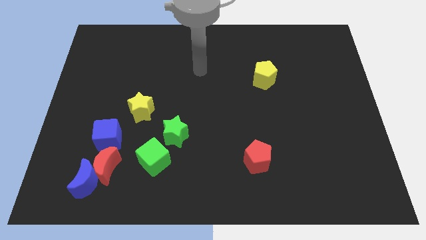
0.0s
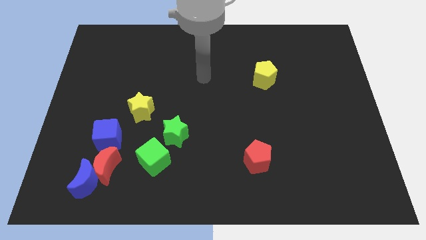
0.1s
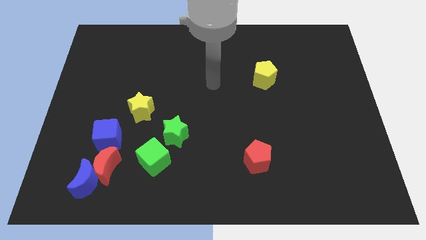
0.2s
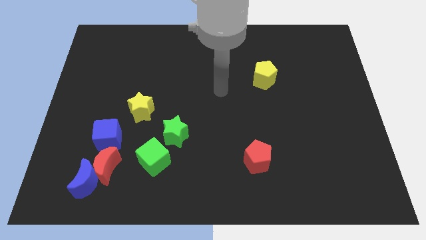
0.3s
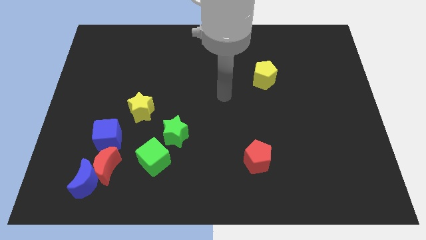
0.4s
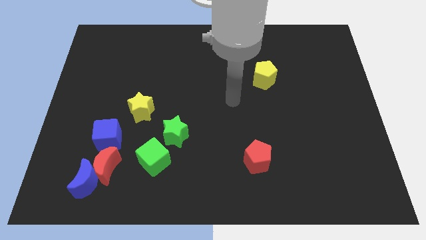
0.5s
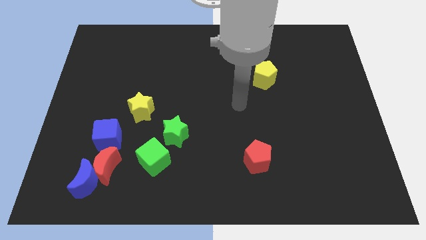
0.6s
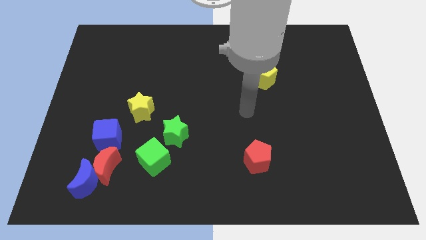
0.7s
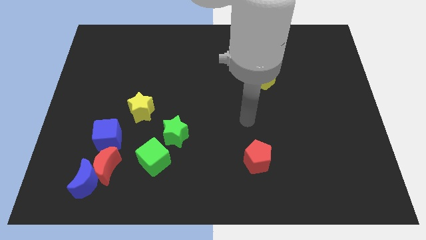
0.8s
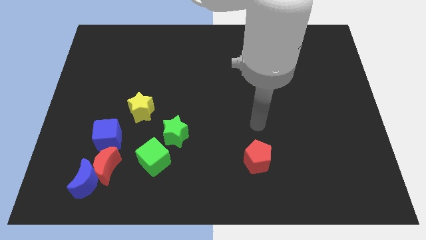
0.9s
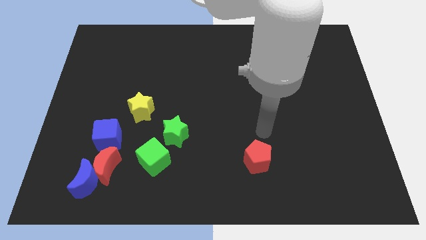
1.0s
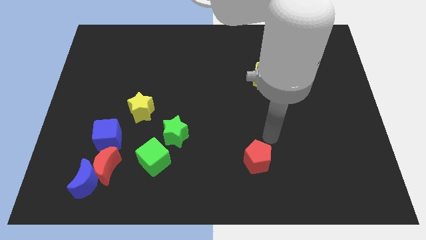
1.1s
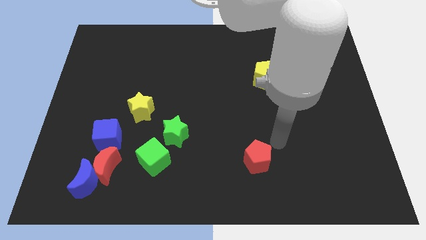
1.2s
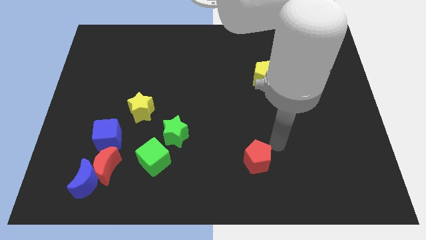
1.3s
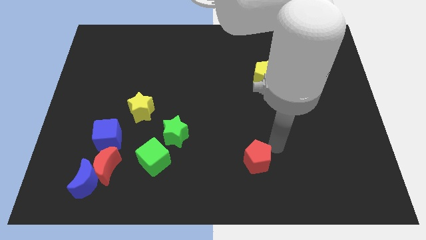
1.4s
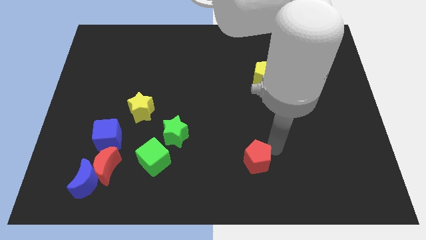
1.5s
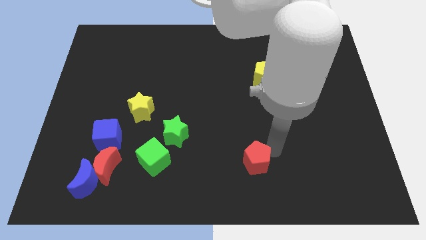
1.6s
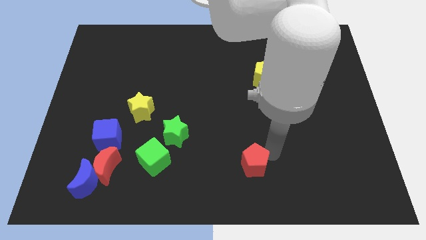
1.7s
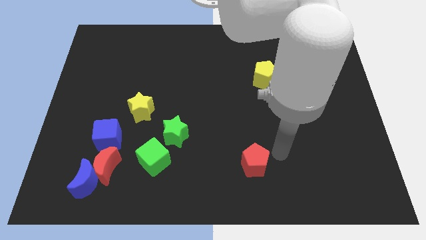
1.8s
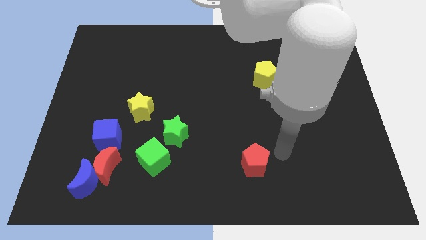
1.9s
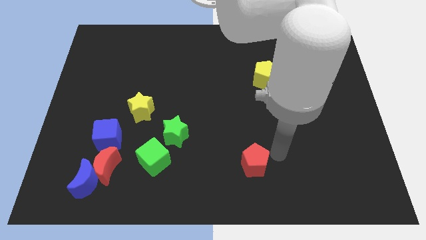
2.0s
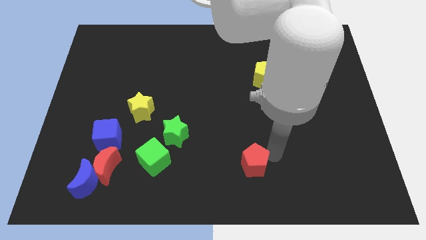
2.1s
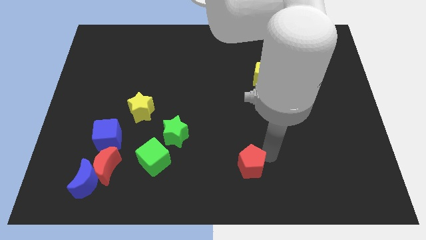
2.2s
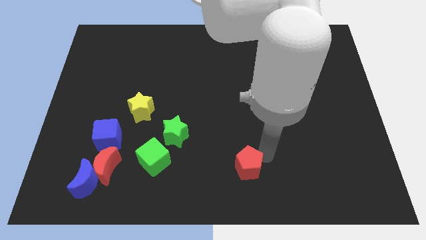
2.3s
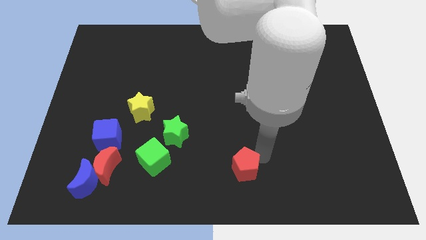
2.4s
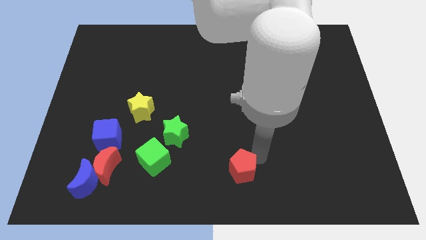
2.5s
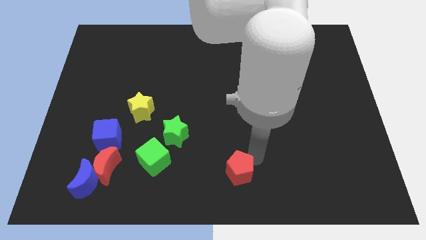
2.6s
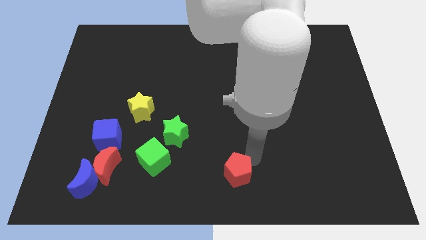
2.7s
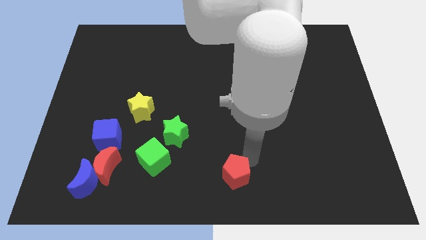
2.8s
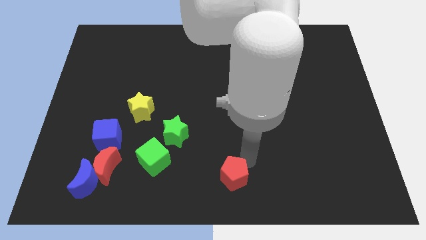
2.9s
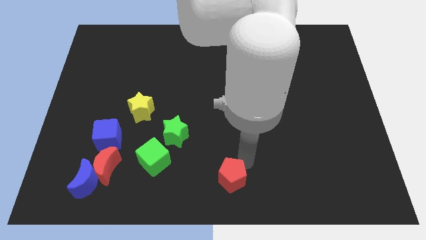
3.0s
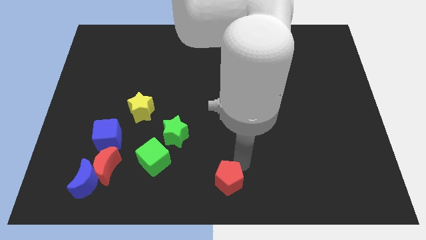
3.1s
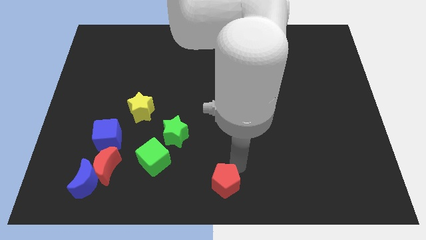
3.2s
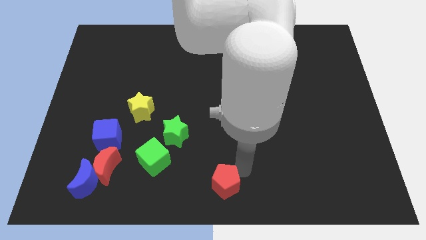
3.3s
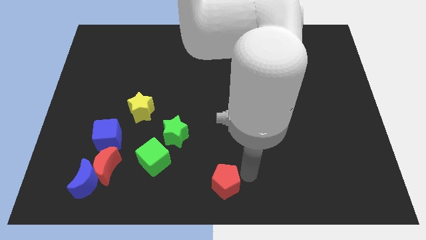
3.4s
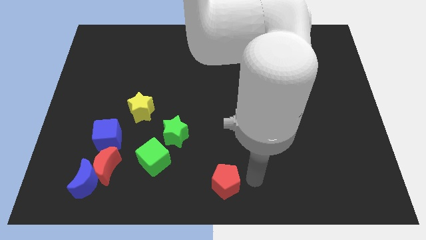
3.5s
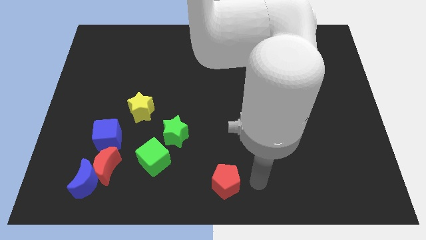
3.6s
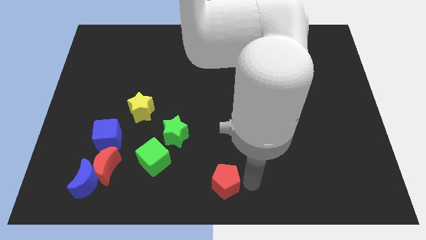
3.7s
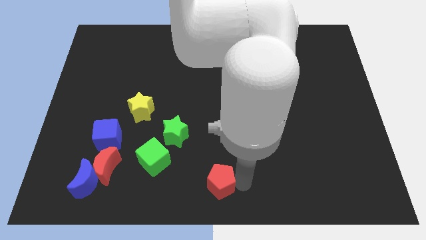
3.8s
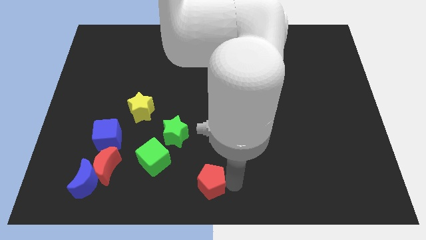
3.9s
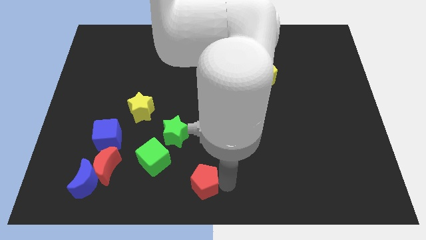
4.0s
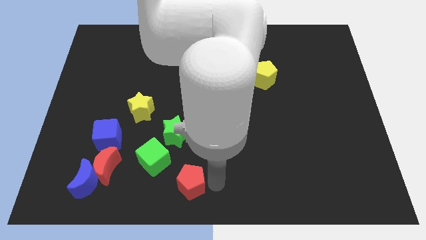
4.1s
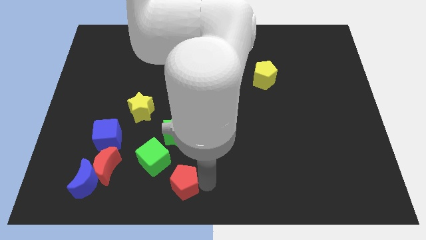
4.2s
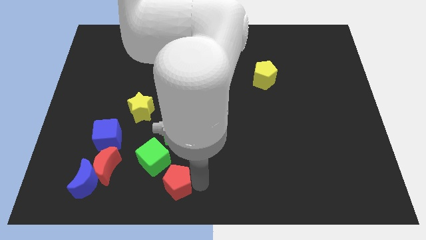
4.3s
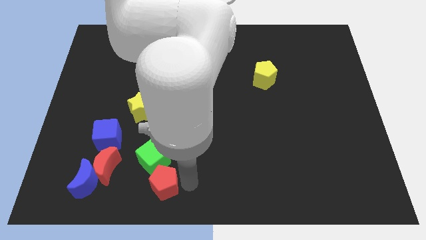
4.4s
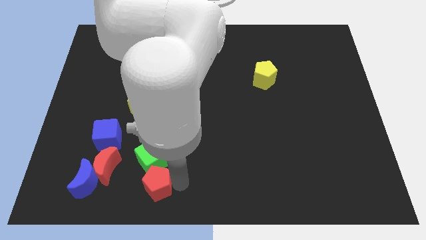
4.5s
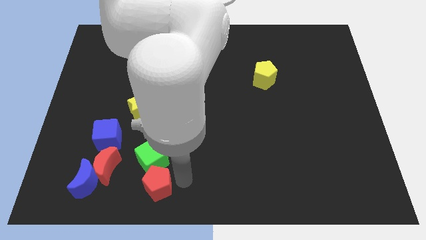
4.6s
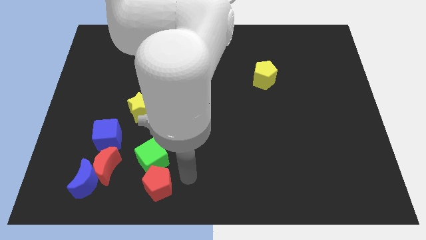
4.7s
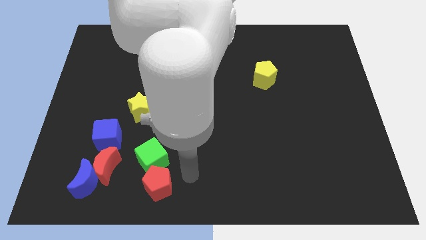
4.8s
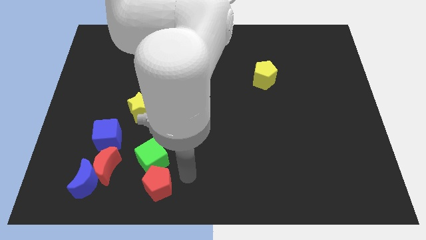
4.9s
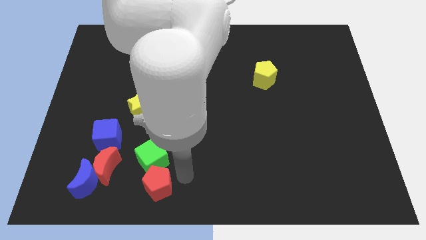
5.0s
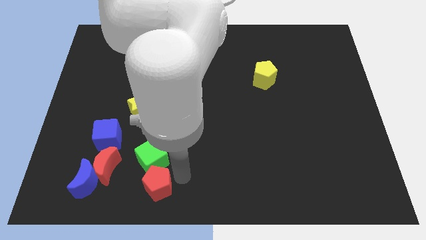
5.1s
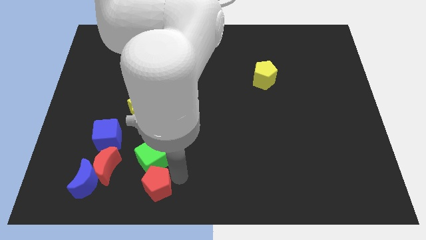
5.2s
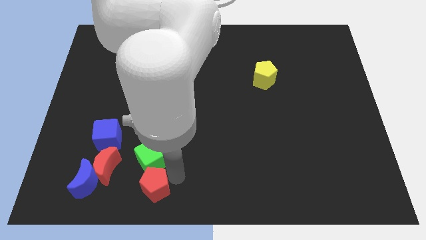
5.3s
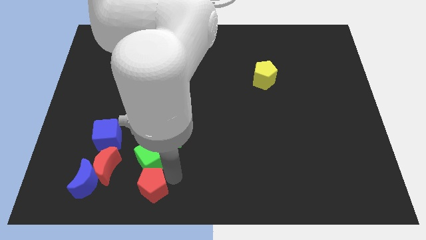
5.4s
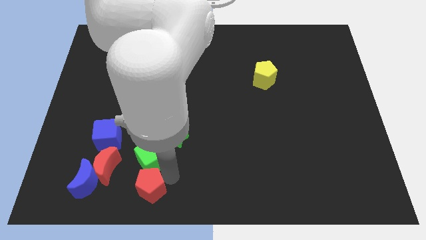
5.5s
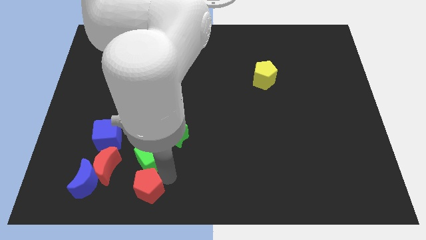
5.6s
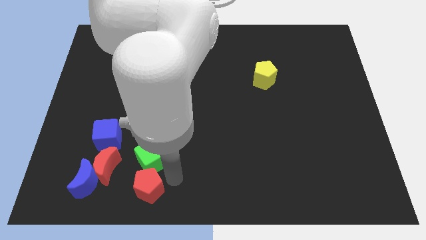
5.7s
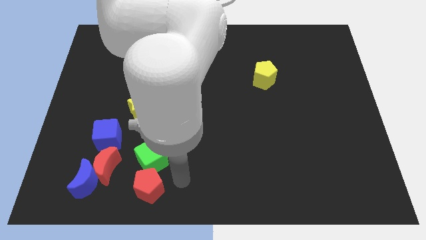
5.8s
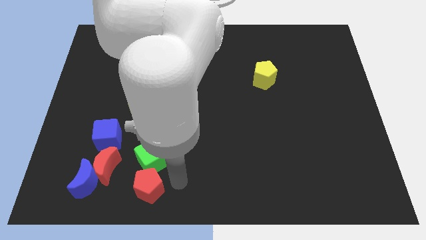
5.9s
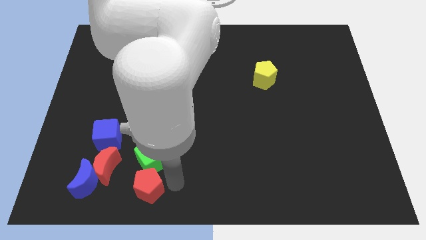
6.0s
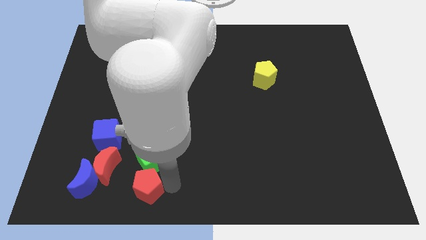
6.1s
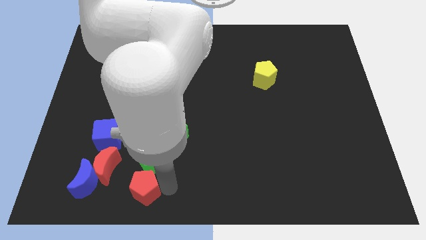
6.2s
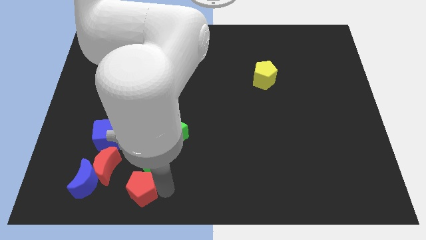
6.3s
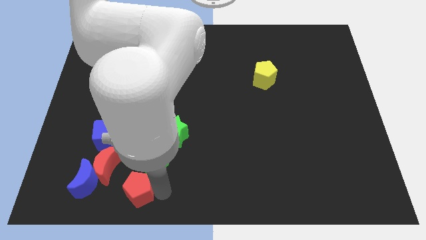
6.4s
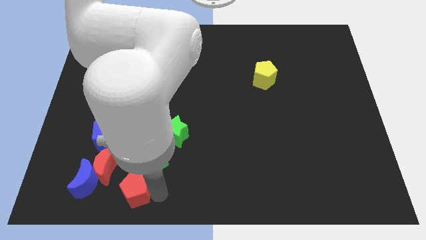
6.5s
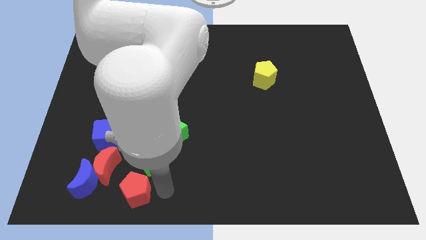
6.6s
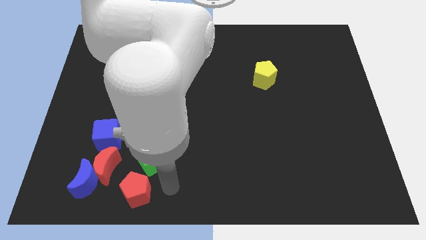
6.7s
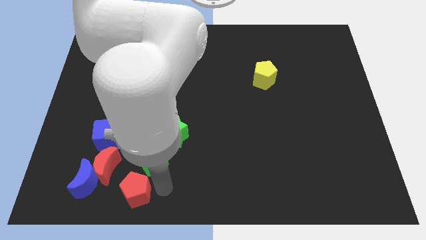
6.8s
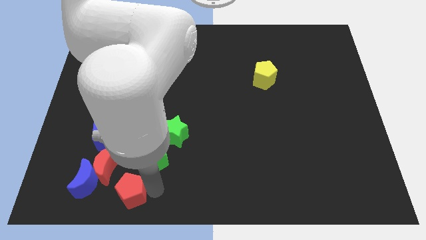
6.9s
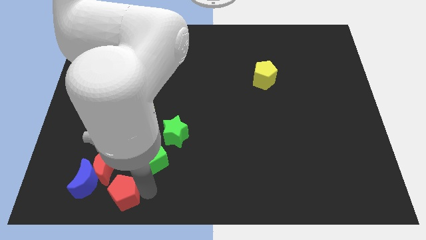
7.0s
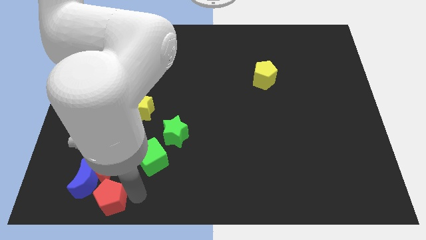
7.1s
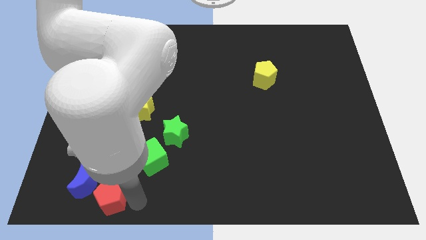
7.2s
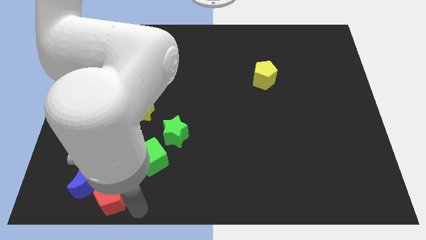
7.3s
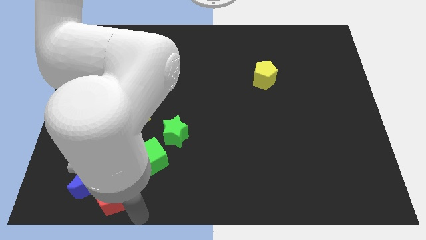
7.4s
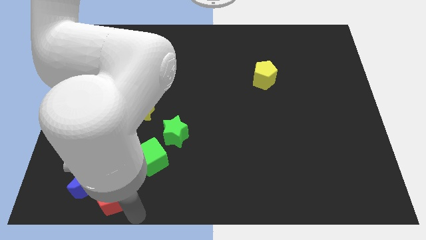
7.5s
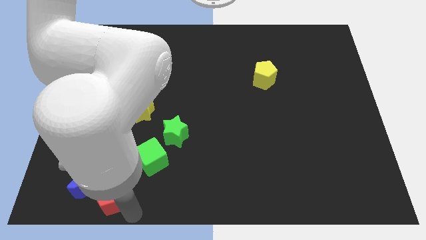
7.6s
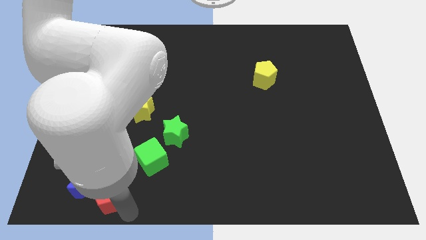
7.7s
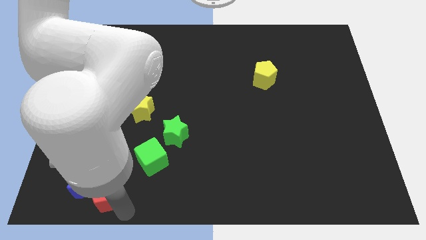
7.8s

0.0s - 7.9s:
push the red pentagon towards the blue moon
